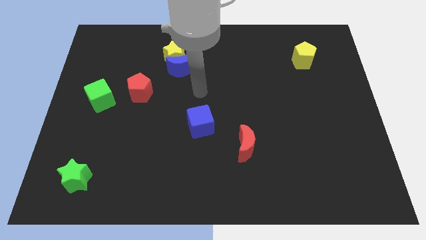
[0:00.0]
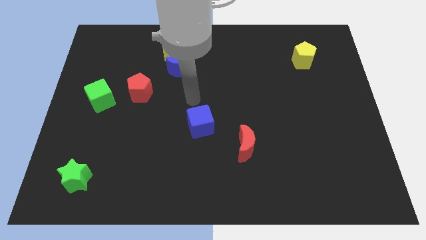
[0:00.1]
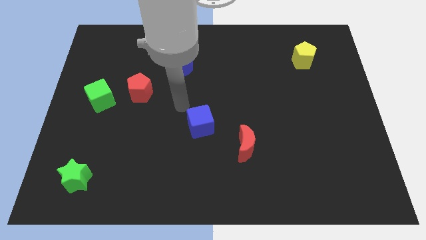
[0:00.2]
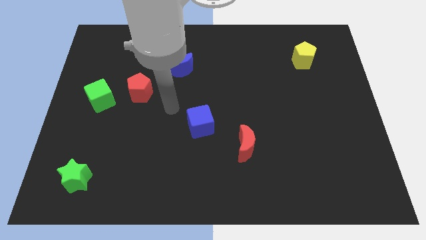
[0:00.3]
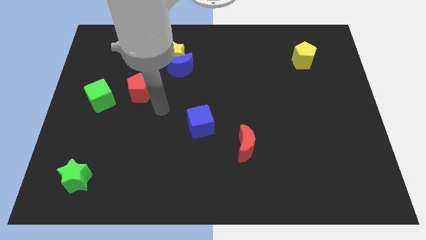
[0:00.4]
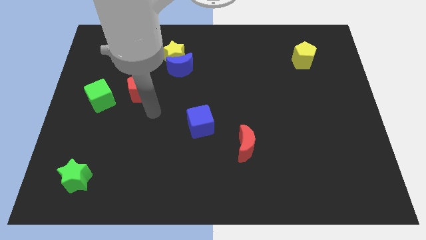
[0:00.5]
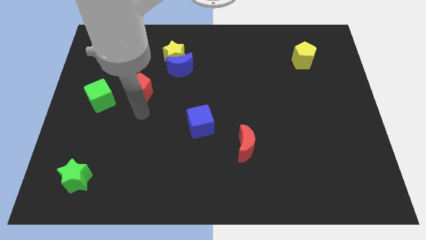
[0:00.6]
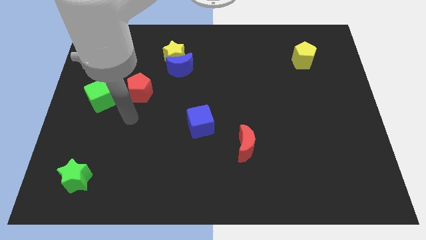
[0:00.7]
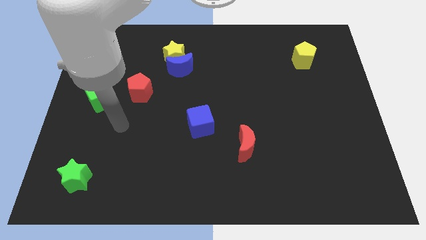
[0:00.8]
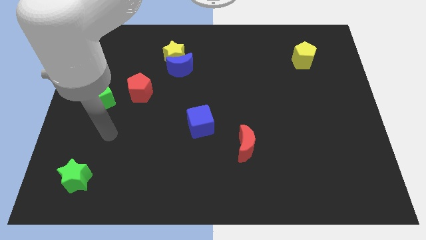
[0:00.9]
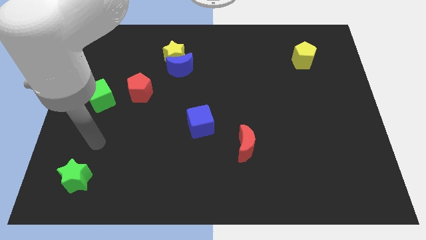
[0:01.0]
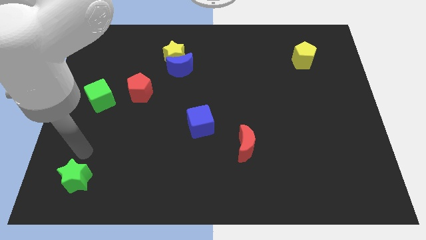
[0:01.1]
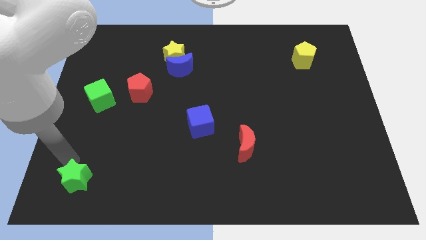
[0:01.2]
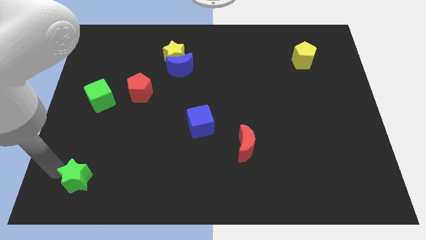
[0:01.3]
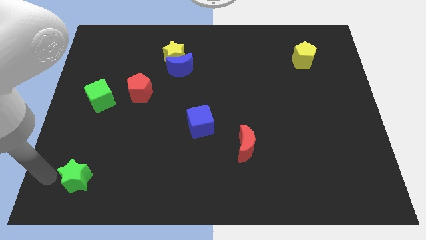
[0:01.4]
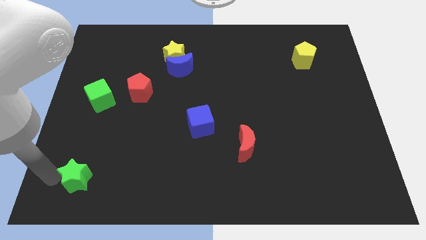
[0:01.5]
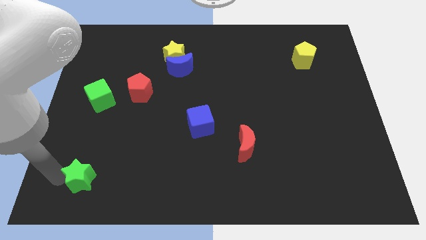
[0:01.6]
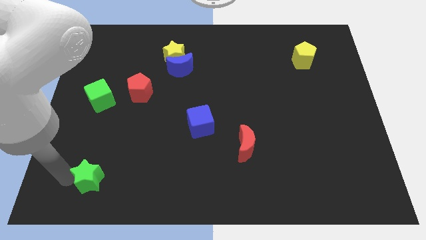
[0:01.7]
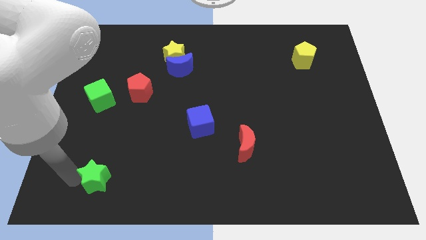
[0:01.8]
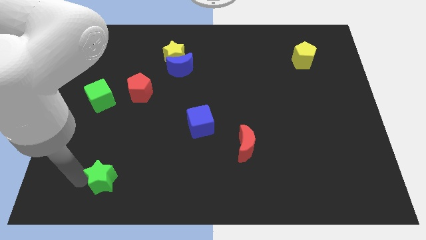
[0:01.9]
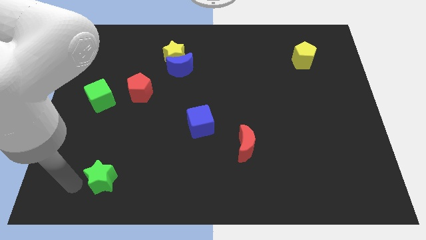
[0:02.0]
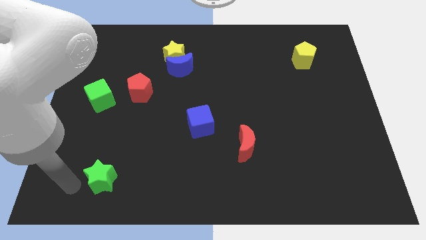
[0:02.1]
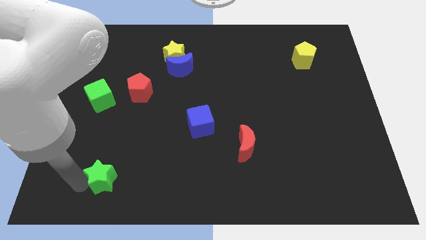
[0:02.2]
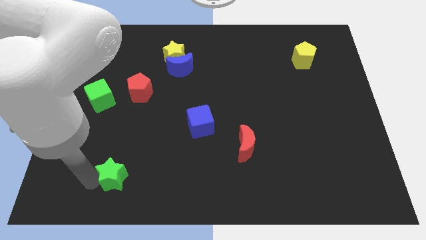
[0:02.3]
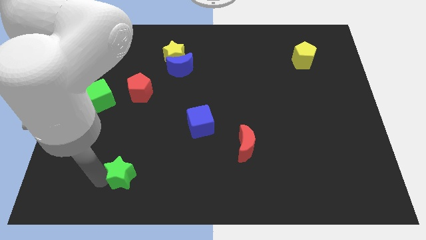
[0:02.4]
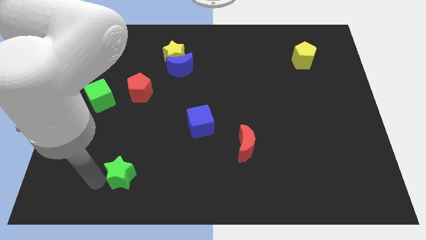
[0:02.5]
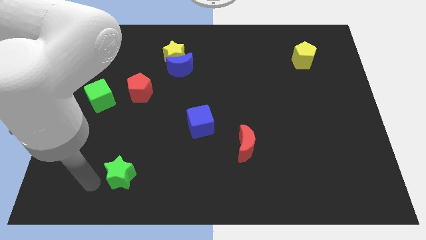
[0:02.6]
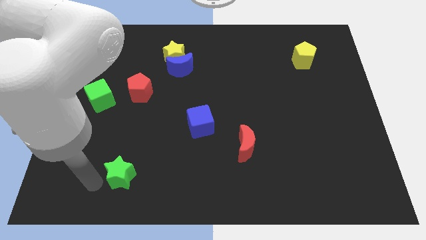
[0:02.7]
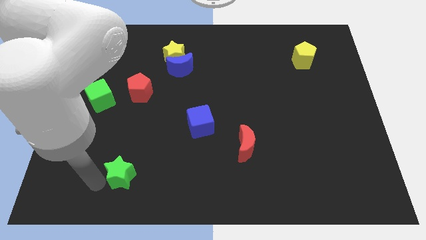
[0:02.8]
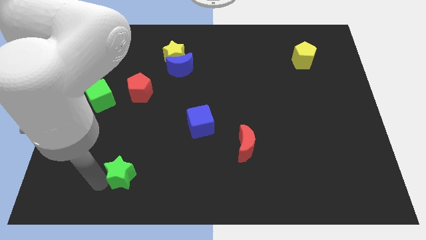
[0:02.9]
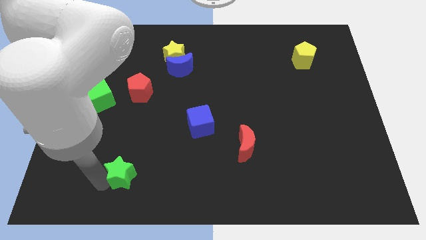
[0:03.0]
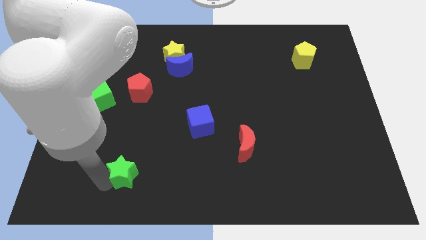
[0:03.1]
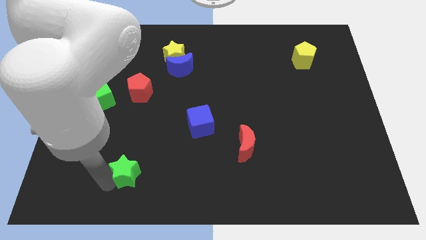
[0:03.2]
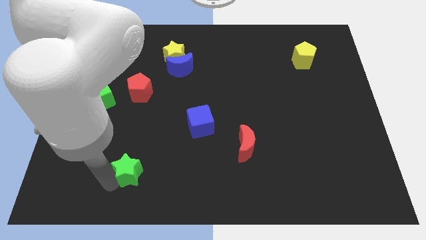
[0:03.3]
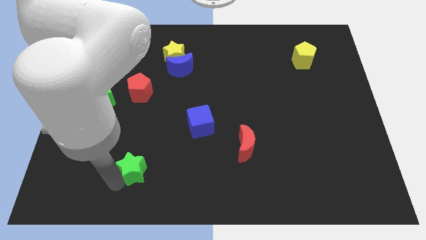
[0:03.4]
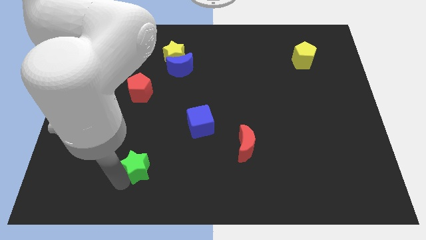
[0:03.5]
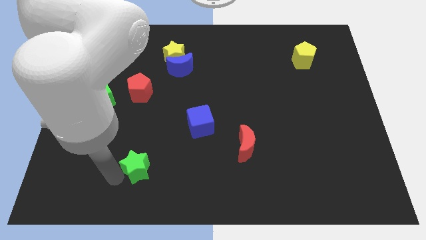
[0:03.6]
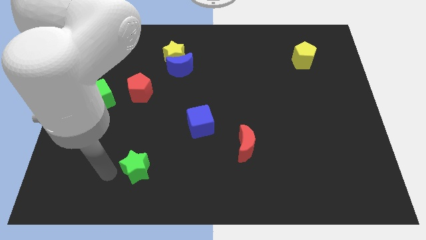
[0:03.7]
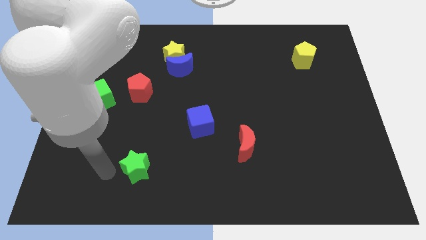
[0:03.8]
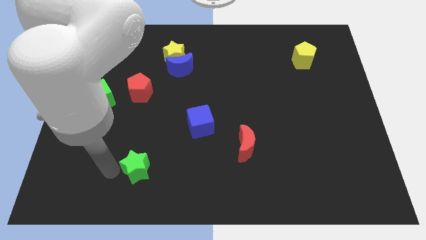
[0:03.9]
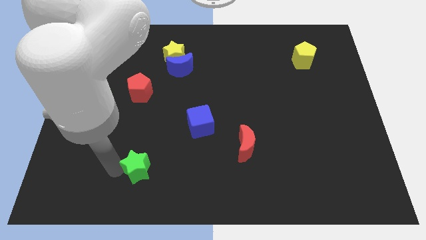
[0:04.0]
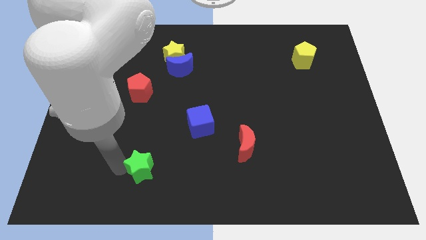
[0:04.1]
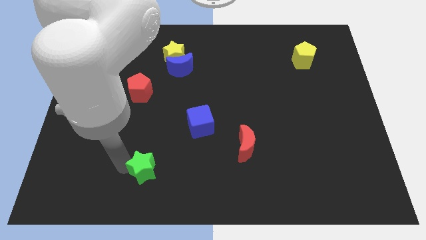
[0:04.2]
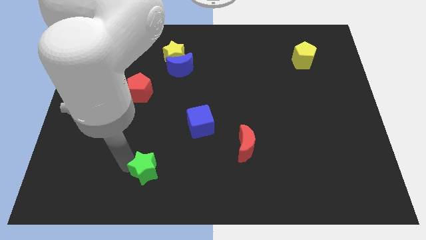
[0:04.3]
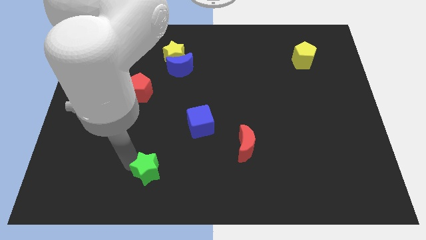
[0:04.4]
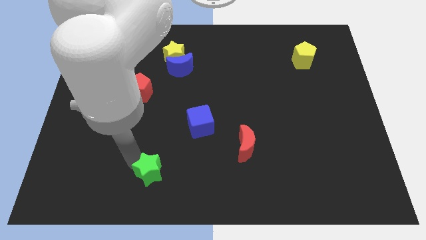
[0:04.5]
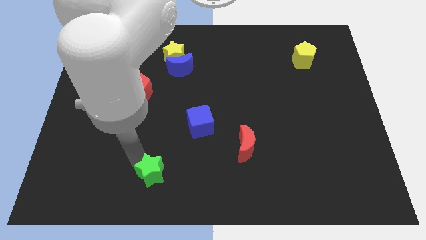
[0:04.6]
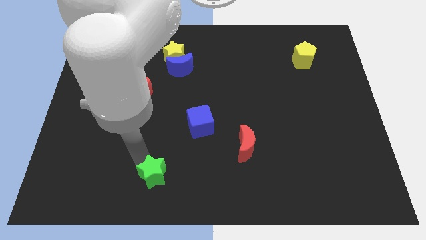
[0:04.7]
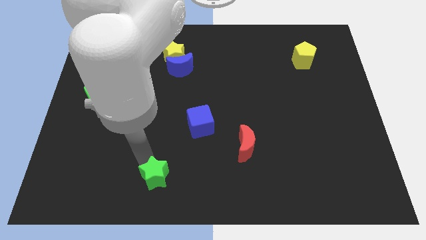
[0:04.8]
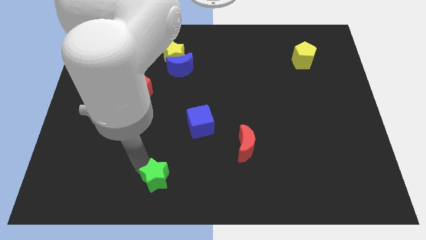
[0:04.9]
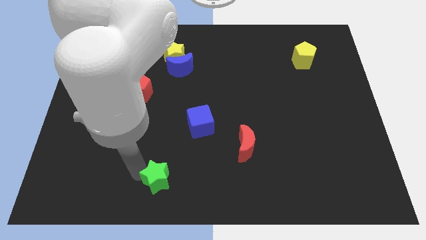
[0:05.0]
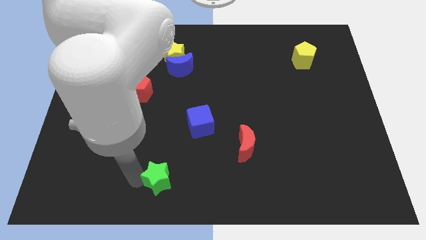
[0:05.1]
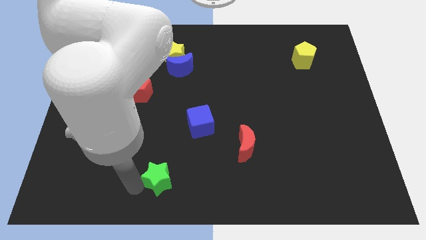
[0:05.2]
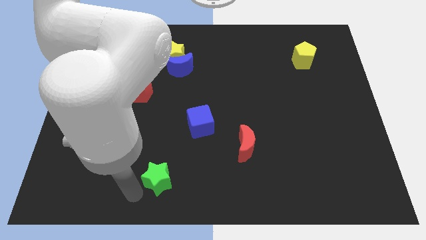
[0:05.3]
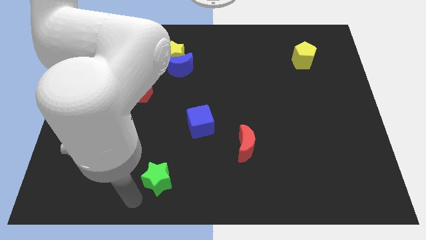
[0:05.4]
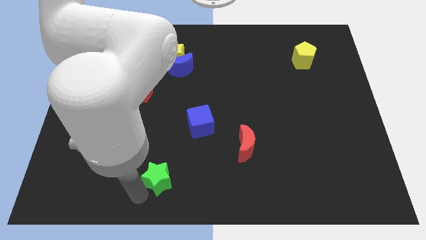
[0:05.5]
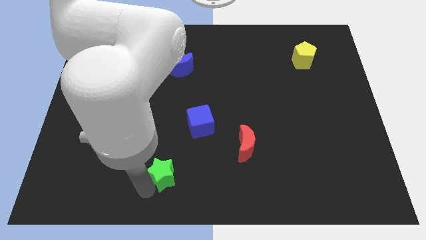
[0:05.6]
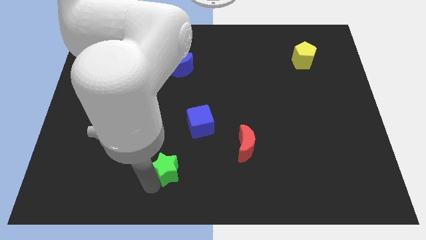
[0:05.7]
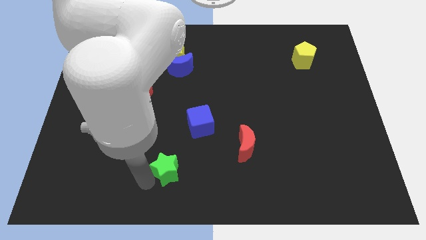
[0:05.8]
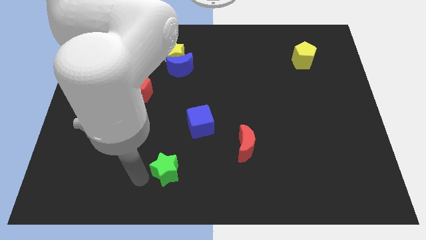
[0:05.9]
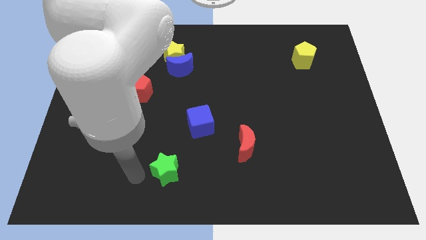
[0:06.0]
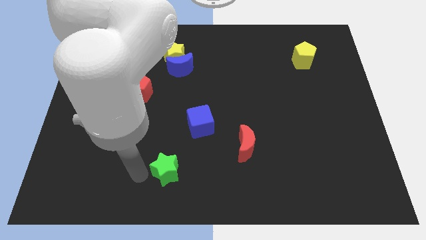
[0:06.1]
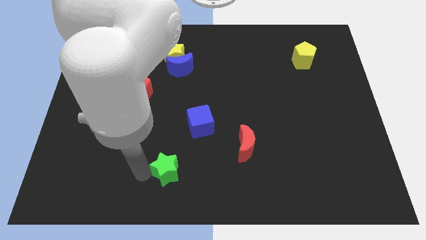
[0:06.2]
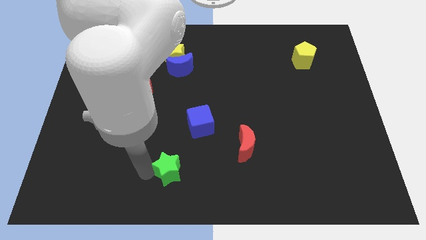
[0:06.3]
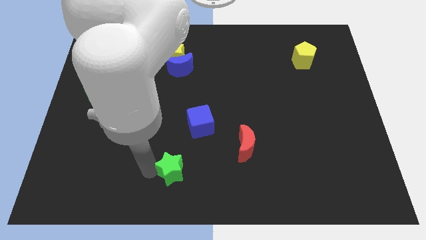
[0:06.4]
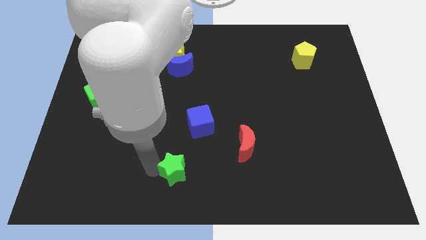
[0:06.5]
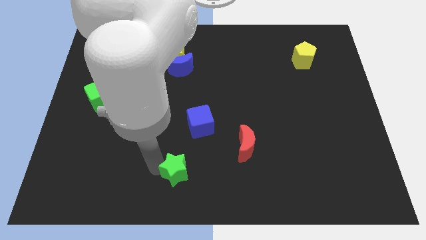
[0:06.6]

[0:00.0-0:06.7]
push the green star to the bottom side of the blue cube
